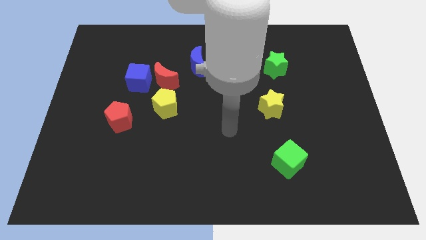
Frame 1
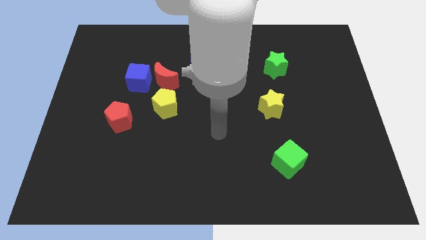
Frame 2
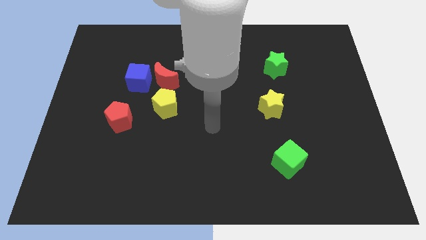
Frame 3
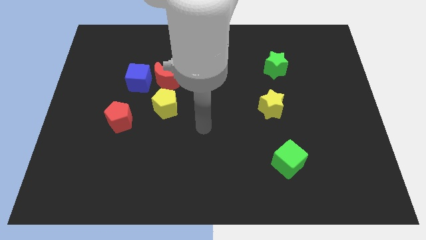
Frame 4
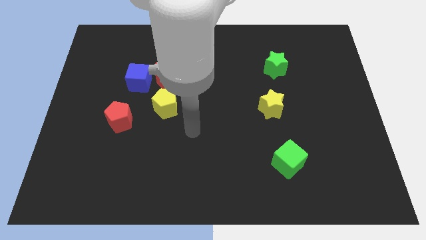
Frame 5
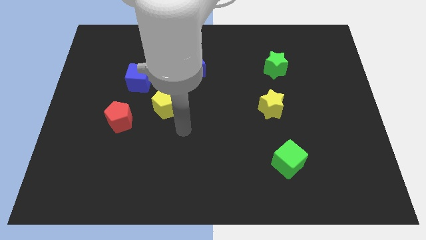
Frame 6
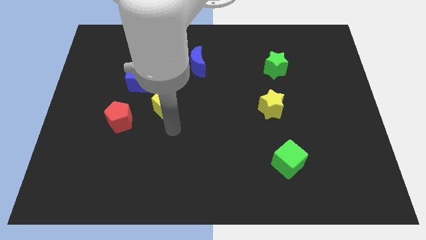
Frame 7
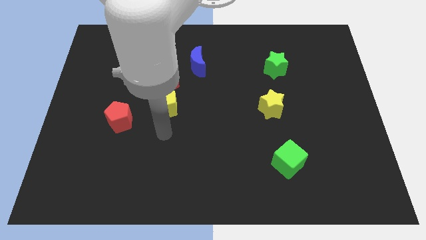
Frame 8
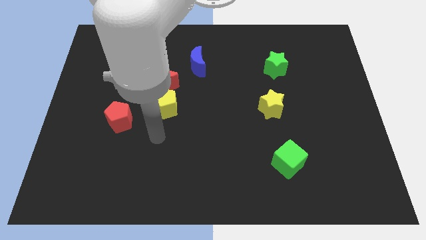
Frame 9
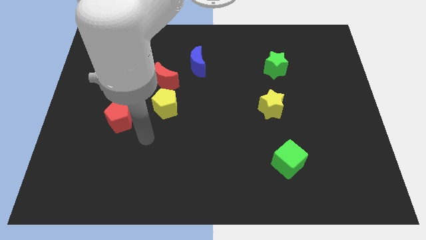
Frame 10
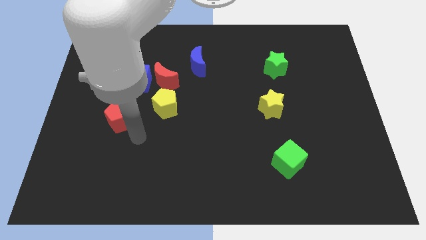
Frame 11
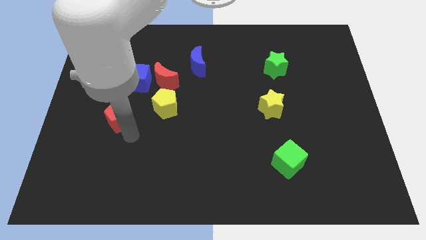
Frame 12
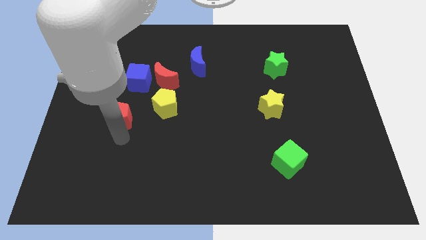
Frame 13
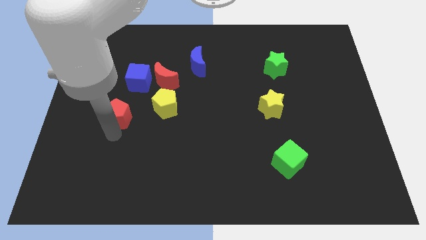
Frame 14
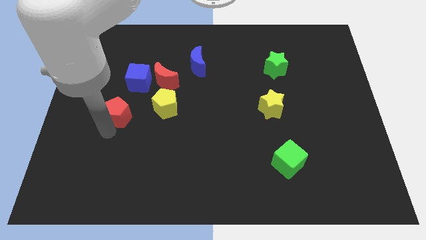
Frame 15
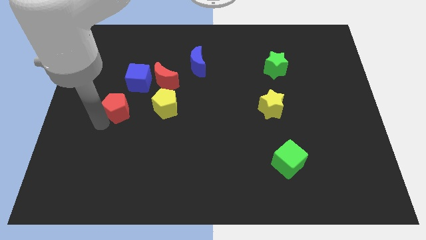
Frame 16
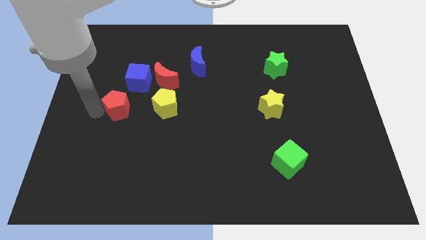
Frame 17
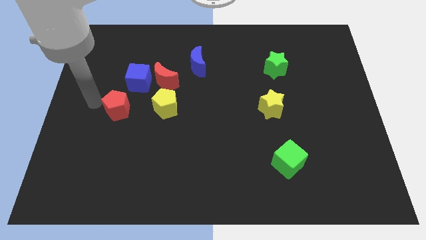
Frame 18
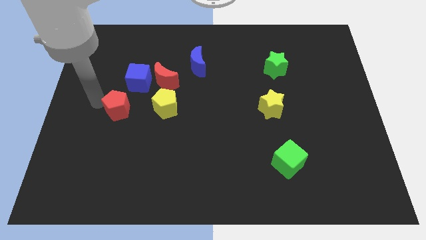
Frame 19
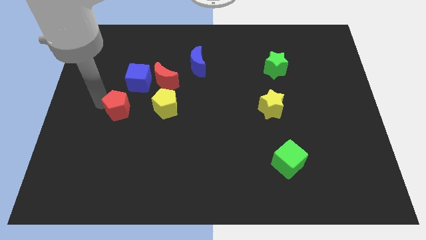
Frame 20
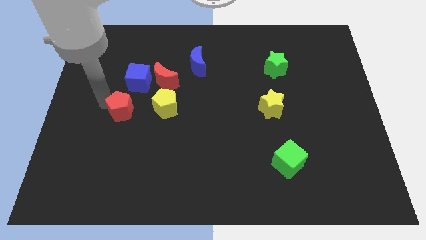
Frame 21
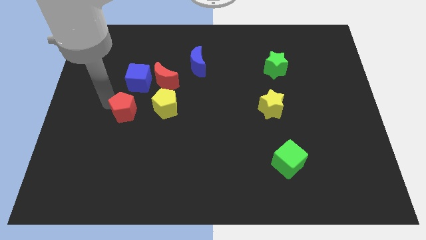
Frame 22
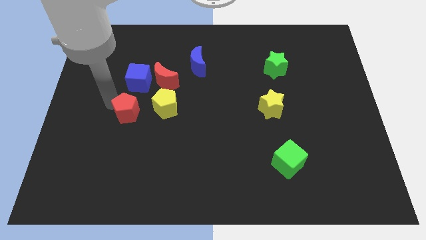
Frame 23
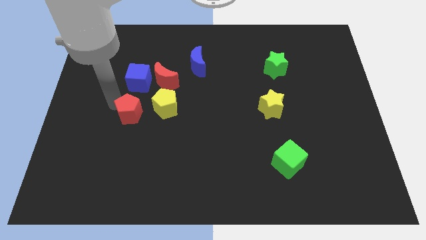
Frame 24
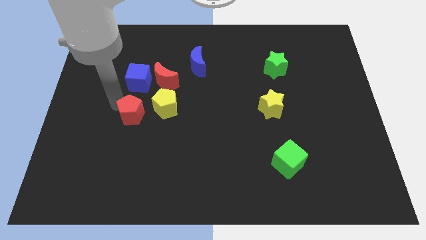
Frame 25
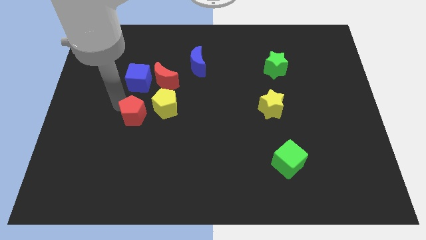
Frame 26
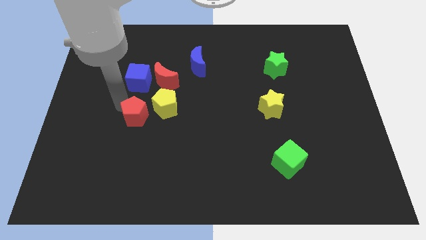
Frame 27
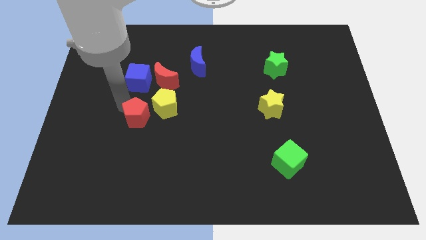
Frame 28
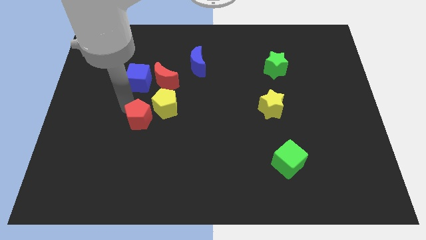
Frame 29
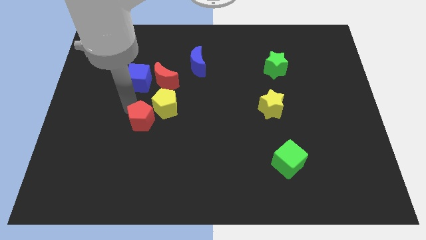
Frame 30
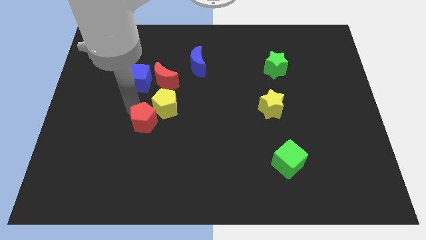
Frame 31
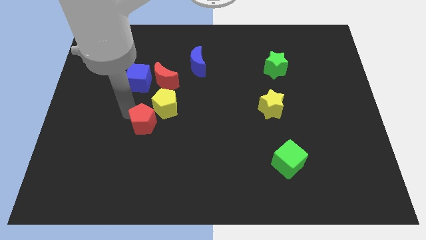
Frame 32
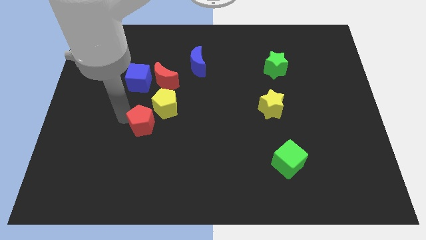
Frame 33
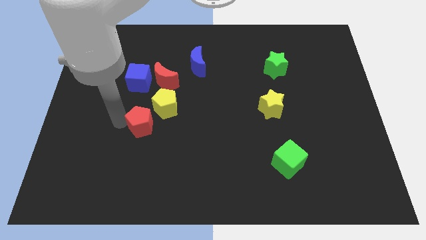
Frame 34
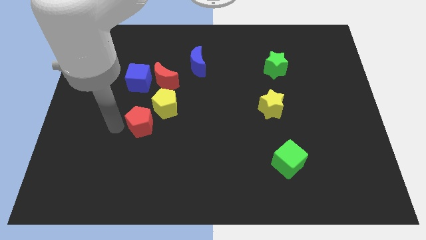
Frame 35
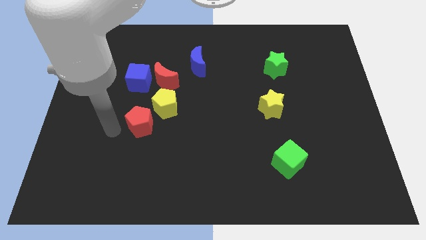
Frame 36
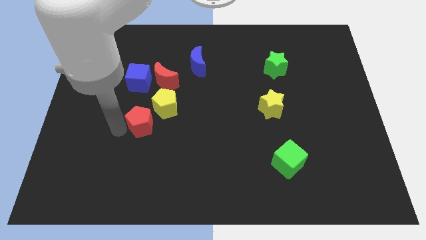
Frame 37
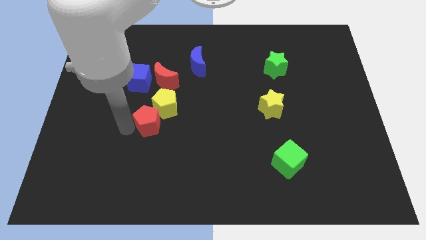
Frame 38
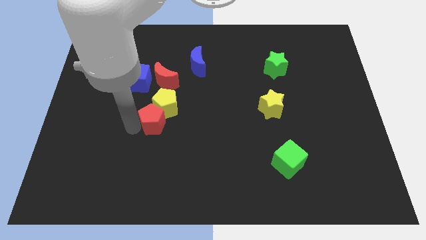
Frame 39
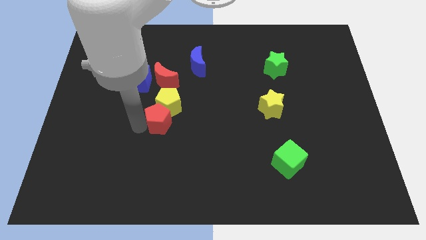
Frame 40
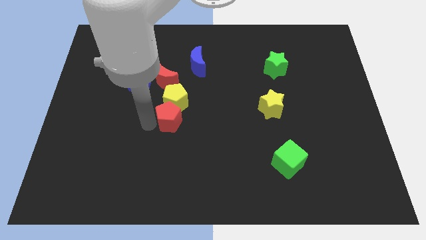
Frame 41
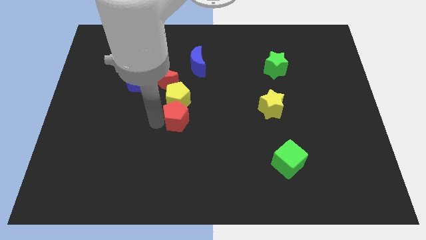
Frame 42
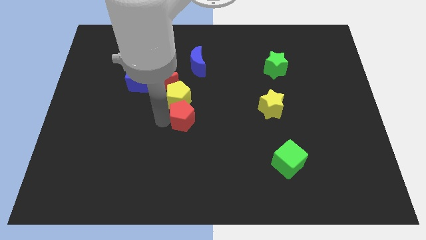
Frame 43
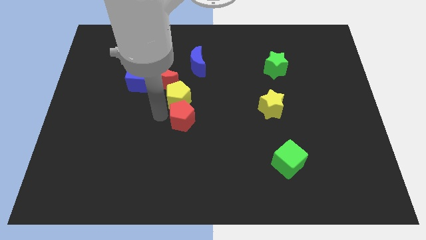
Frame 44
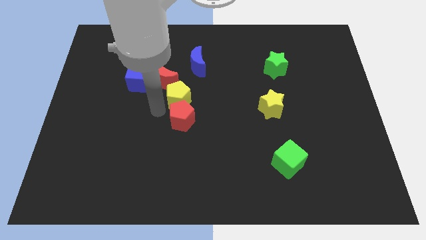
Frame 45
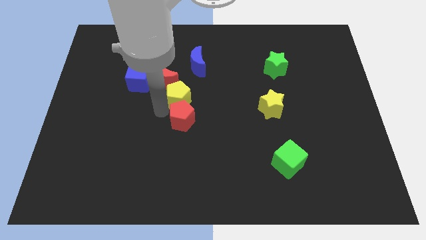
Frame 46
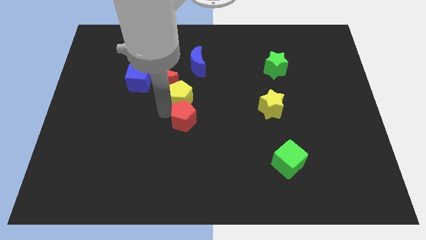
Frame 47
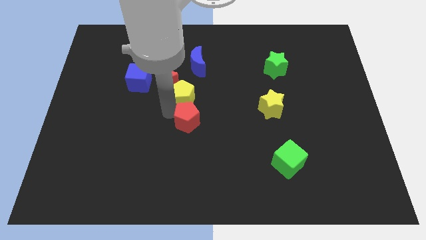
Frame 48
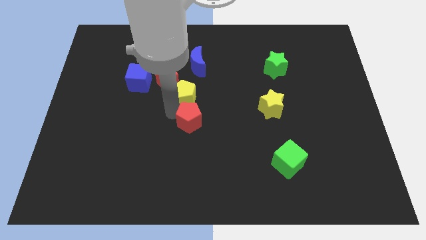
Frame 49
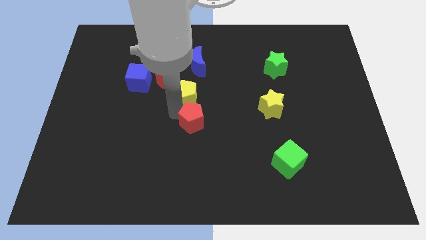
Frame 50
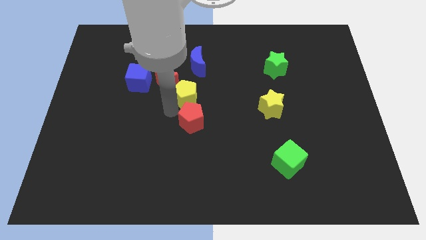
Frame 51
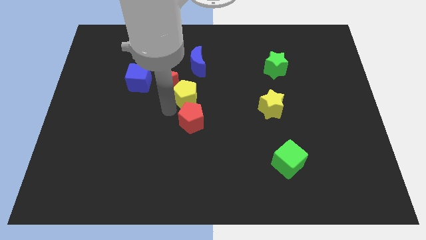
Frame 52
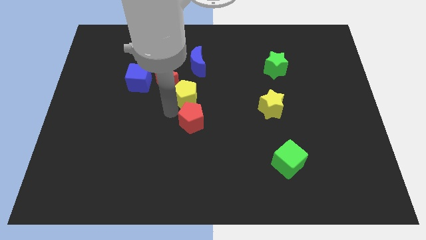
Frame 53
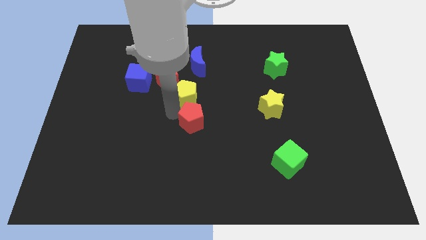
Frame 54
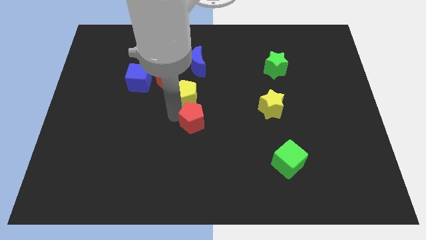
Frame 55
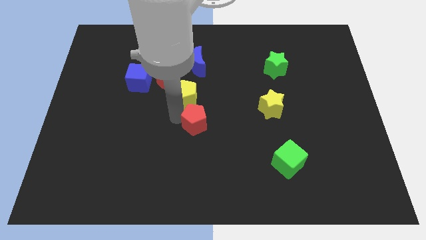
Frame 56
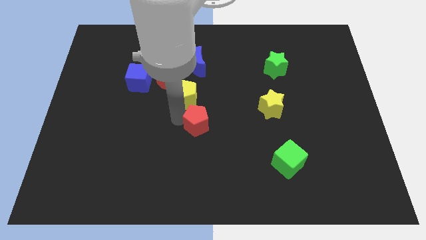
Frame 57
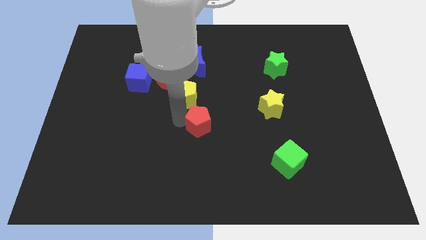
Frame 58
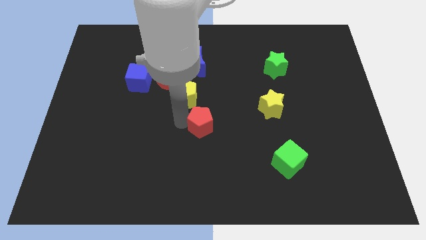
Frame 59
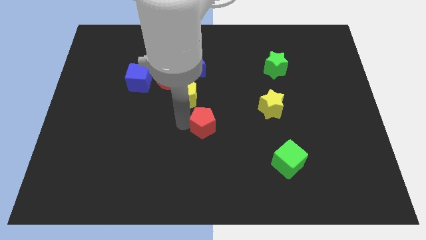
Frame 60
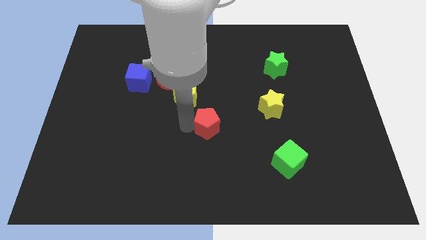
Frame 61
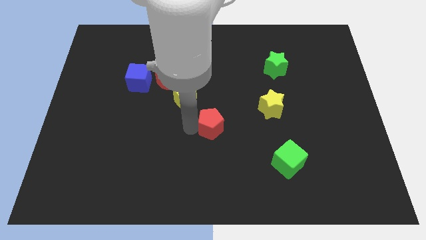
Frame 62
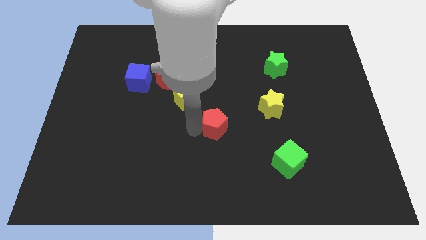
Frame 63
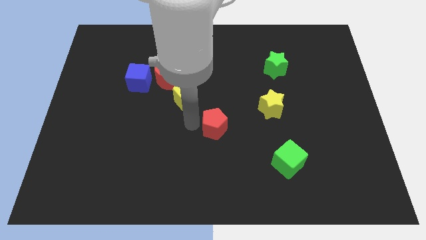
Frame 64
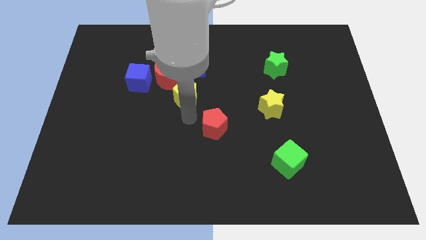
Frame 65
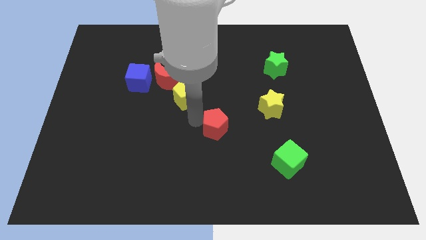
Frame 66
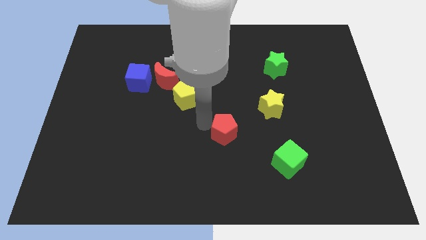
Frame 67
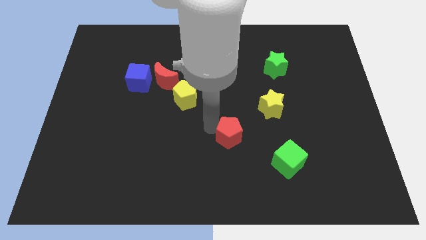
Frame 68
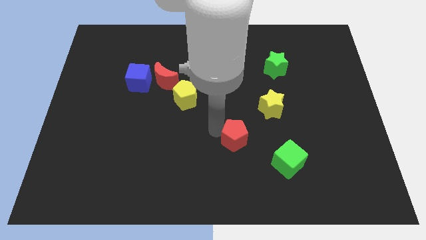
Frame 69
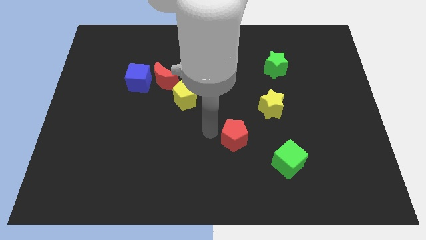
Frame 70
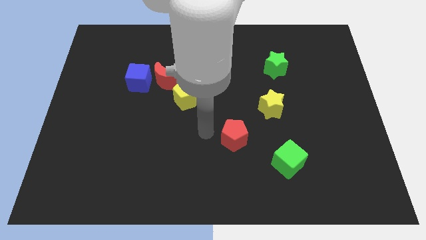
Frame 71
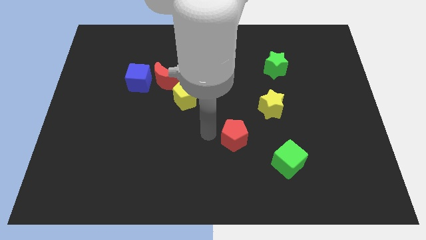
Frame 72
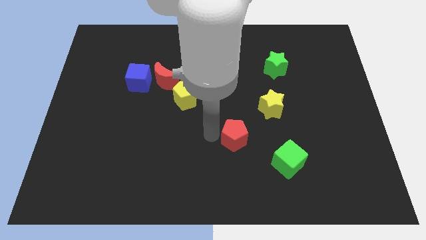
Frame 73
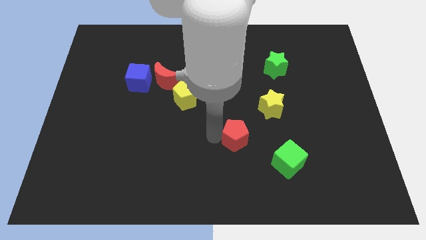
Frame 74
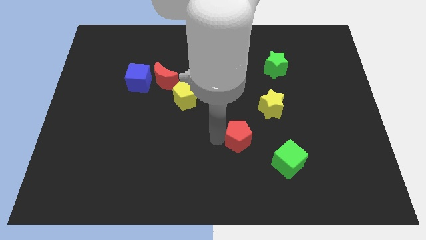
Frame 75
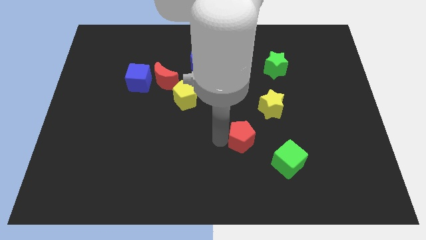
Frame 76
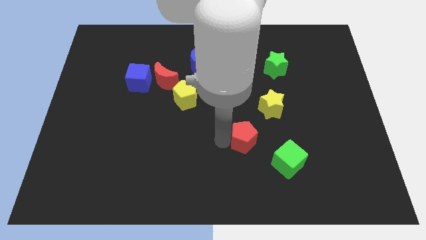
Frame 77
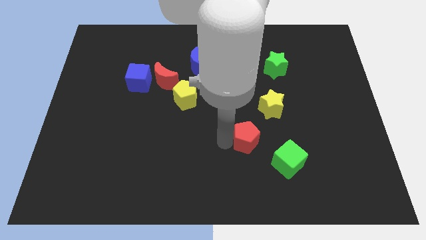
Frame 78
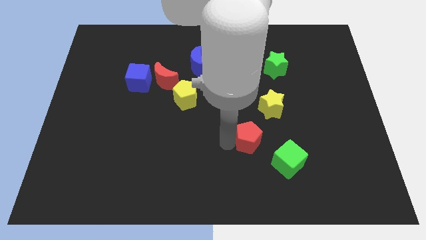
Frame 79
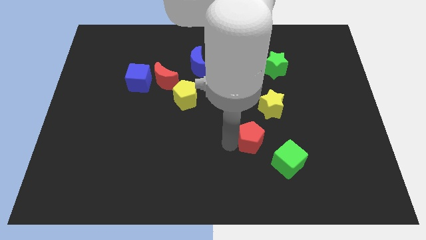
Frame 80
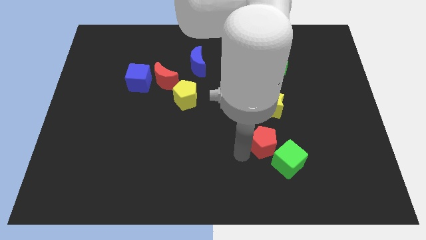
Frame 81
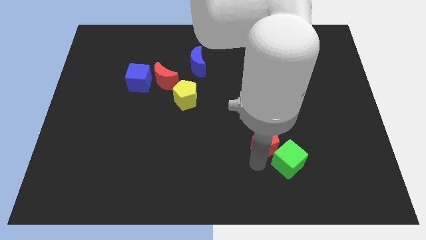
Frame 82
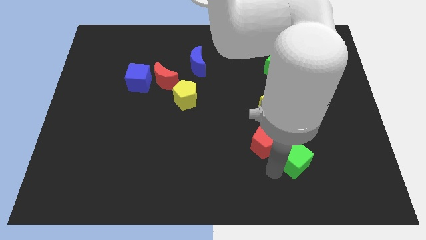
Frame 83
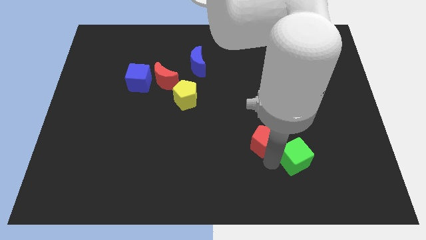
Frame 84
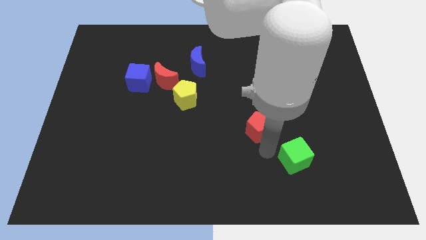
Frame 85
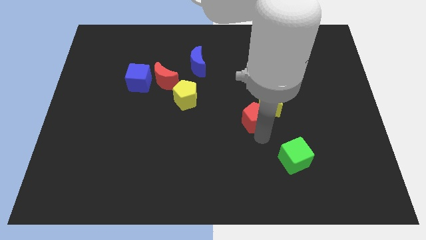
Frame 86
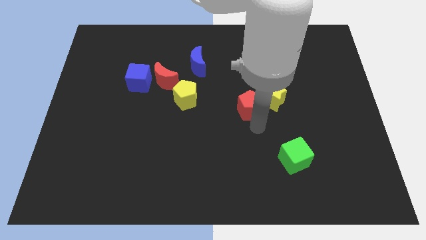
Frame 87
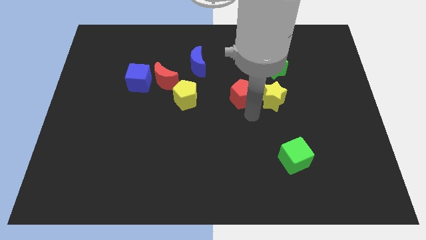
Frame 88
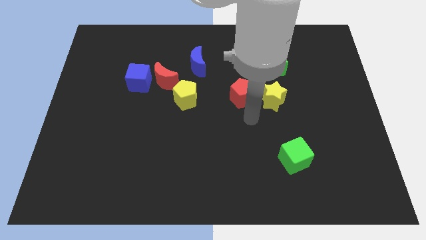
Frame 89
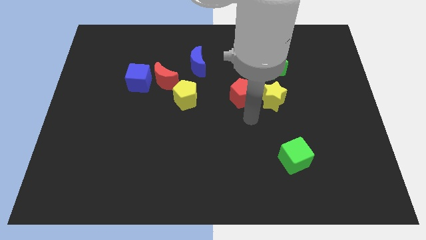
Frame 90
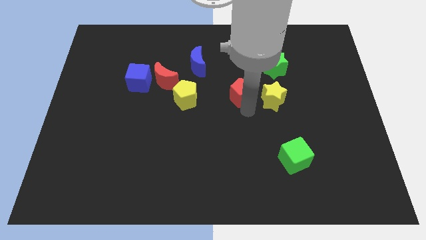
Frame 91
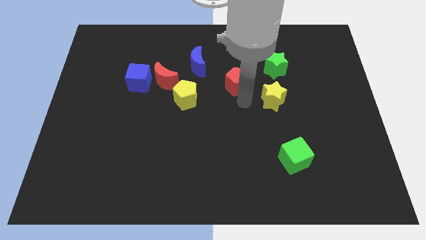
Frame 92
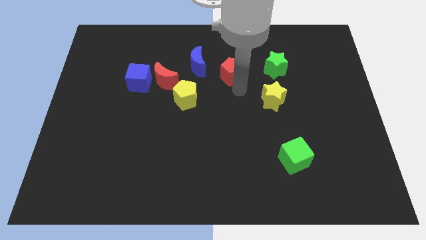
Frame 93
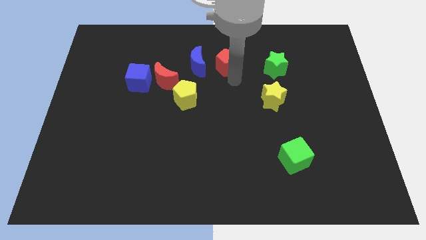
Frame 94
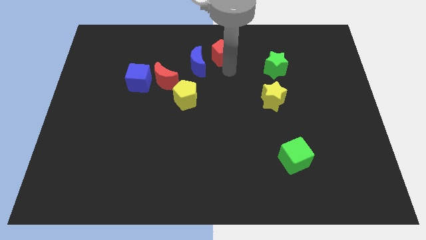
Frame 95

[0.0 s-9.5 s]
slide the red pentagon to the towards your base
